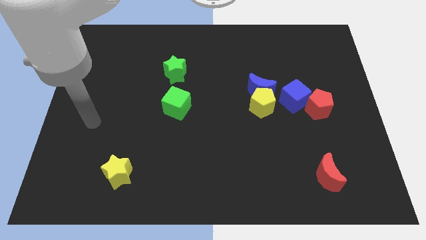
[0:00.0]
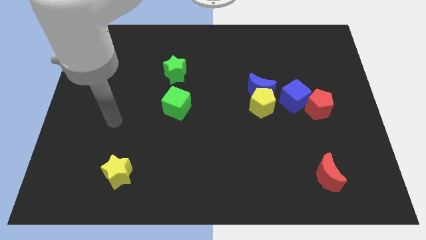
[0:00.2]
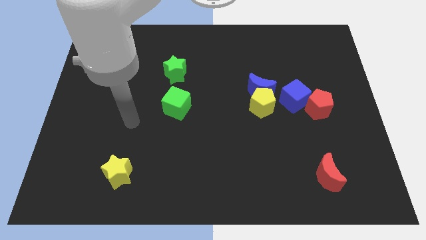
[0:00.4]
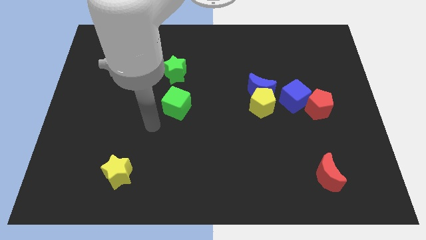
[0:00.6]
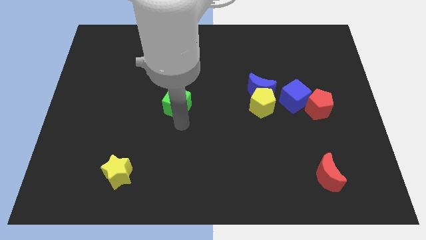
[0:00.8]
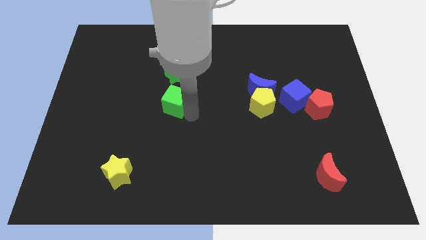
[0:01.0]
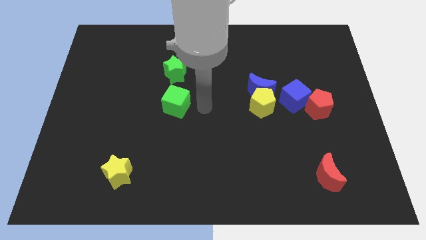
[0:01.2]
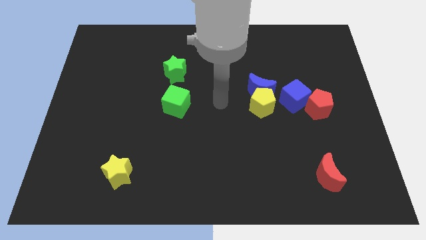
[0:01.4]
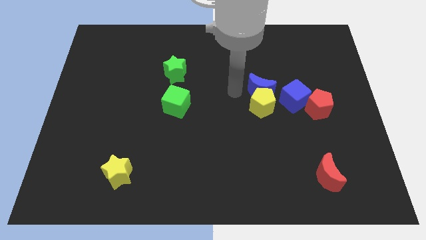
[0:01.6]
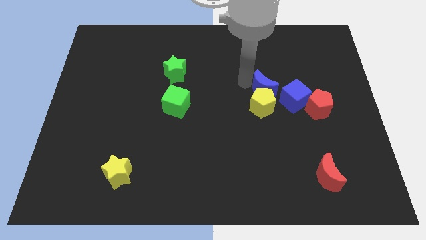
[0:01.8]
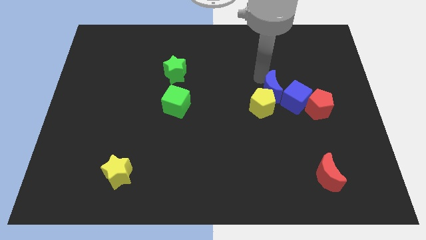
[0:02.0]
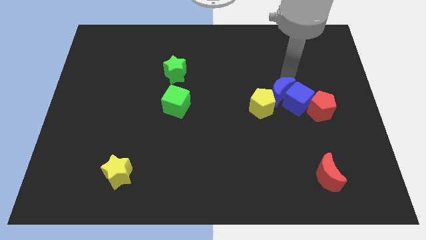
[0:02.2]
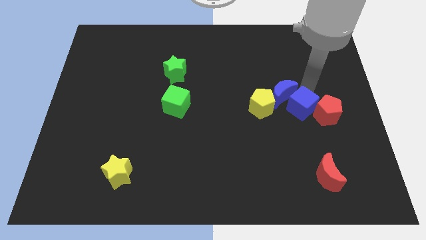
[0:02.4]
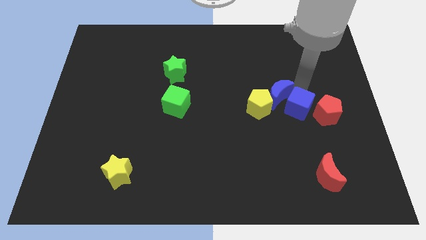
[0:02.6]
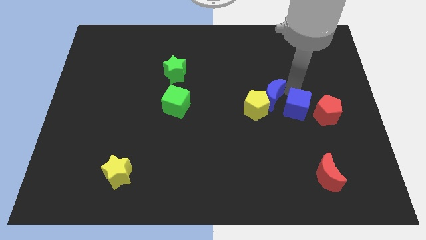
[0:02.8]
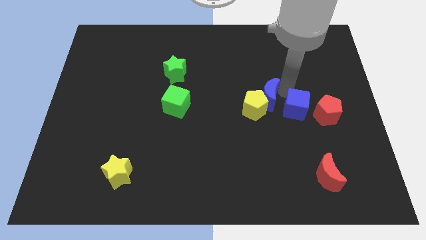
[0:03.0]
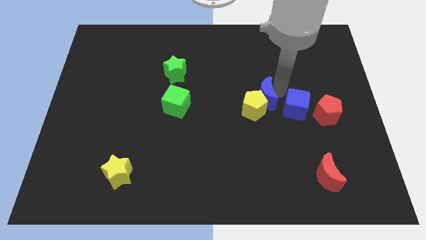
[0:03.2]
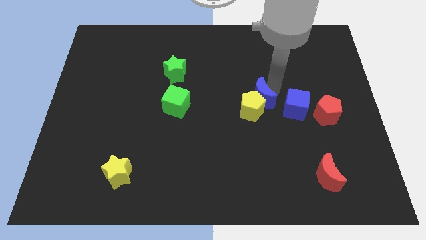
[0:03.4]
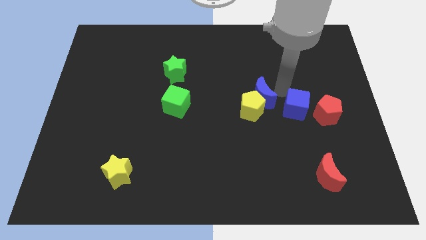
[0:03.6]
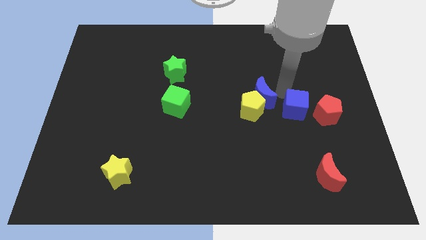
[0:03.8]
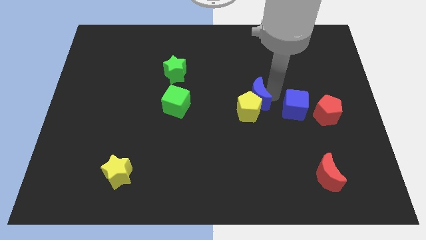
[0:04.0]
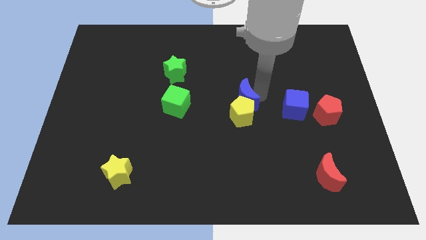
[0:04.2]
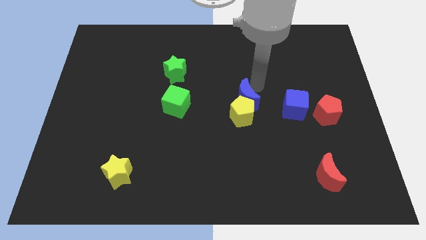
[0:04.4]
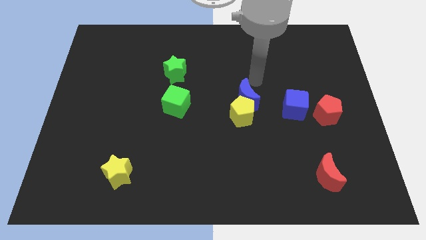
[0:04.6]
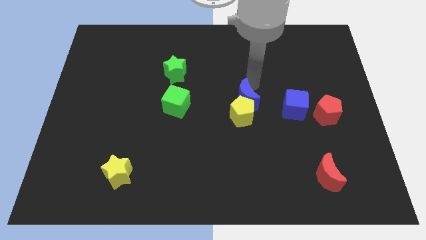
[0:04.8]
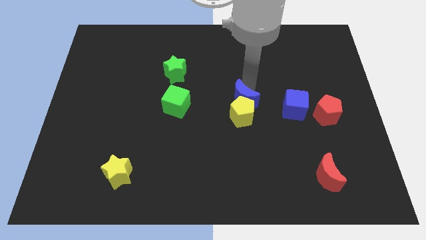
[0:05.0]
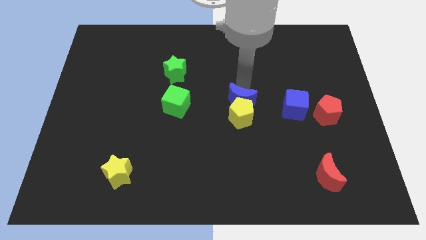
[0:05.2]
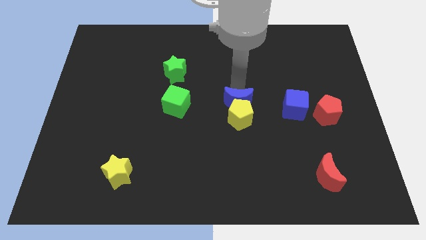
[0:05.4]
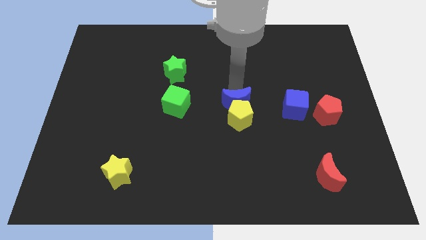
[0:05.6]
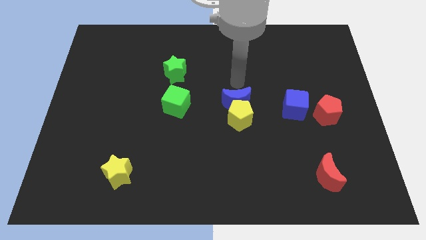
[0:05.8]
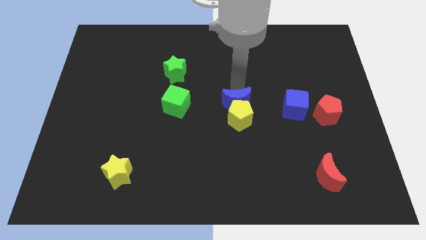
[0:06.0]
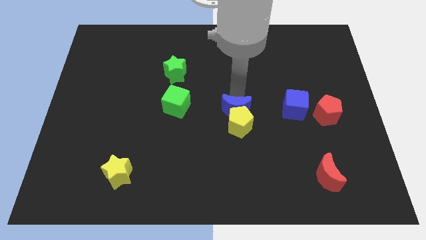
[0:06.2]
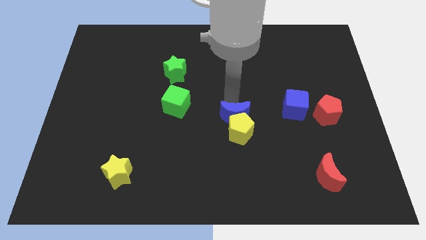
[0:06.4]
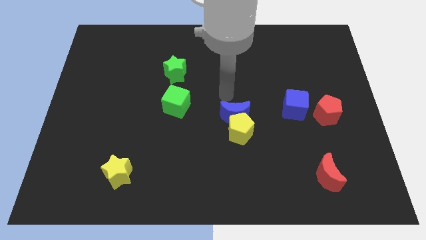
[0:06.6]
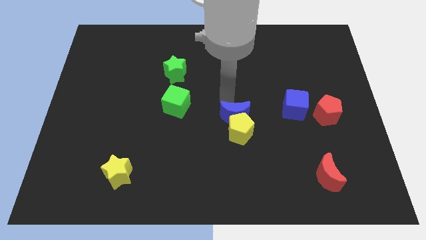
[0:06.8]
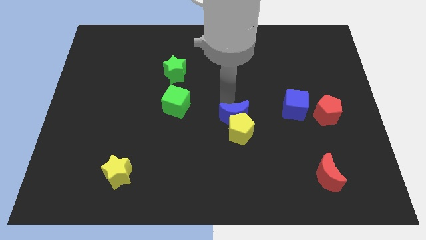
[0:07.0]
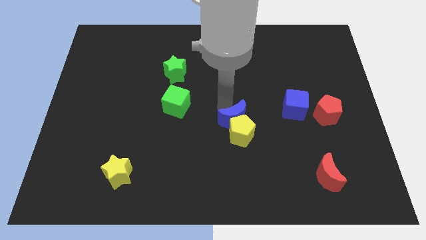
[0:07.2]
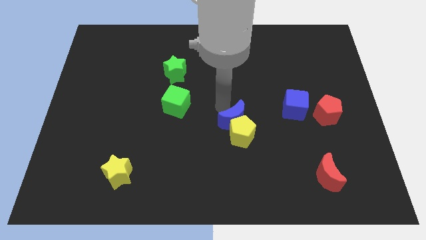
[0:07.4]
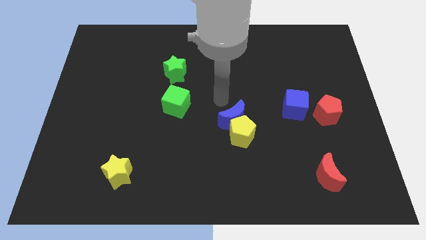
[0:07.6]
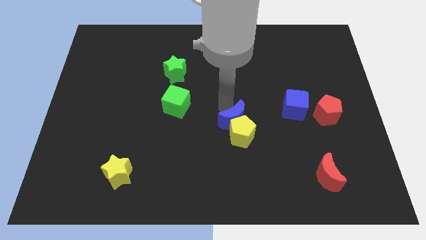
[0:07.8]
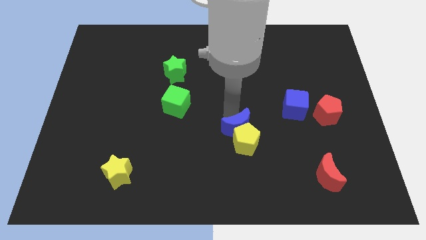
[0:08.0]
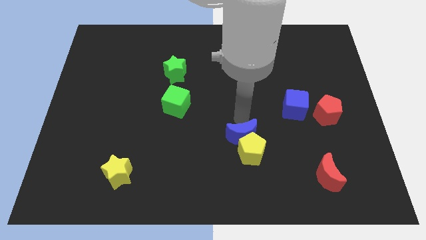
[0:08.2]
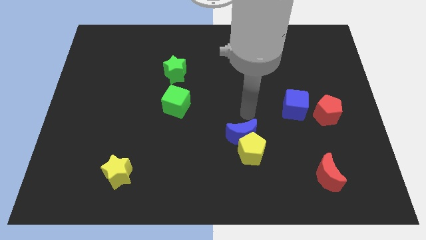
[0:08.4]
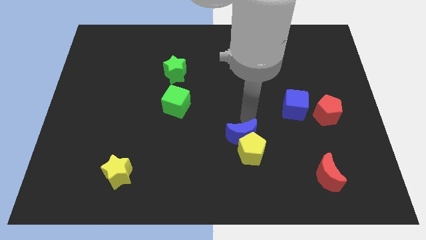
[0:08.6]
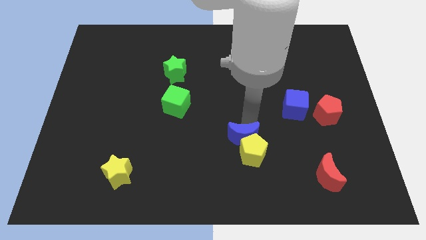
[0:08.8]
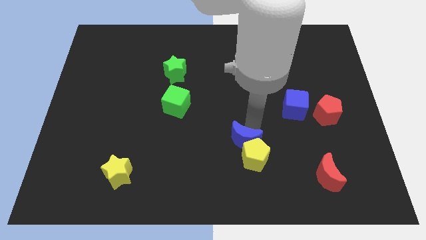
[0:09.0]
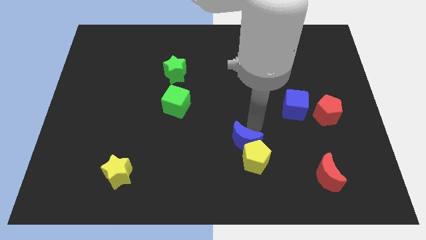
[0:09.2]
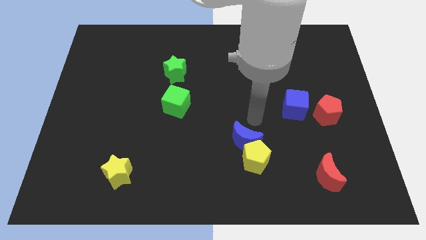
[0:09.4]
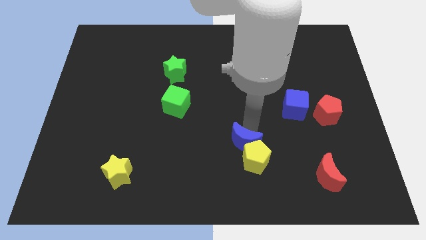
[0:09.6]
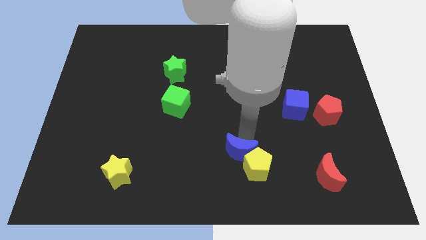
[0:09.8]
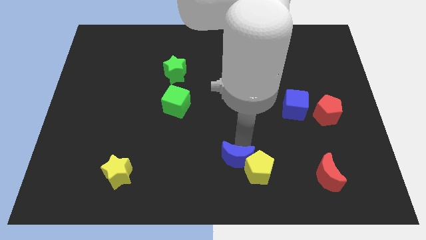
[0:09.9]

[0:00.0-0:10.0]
put the blue moon to the bottom side

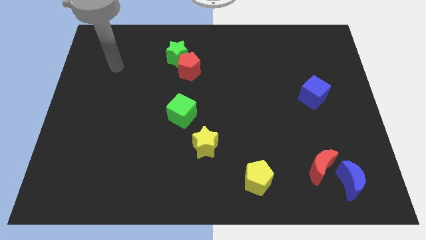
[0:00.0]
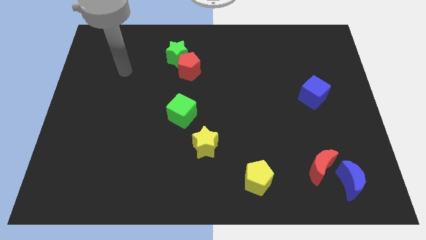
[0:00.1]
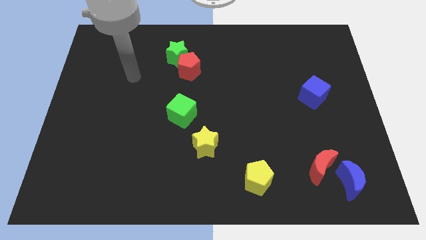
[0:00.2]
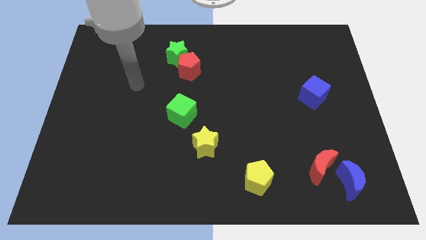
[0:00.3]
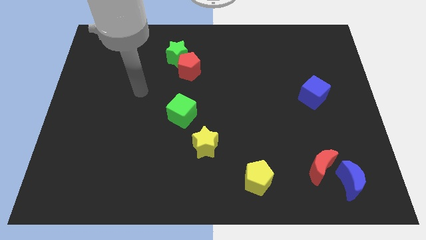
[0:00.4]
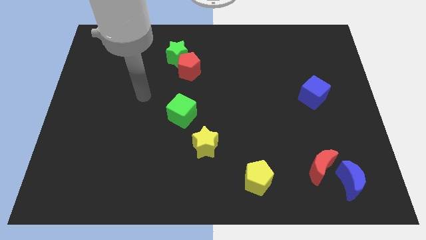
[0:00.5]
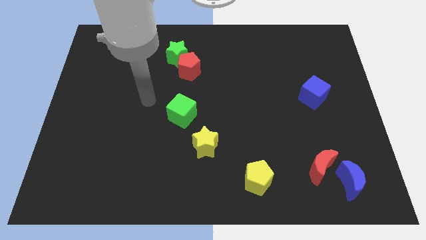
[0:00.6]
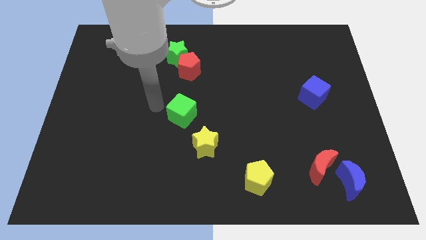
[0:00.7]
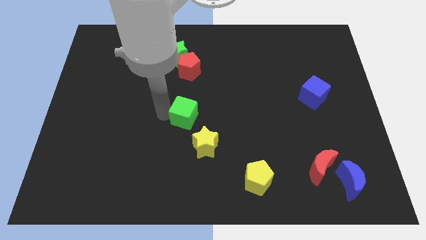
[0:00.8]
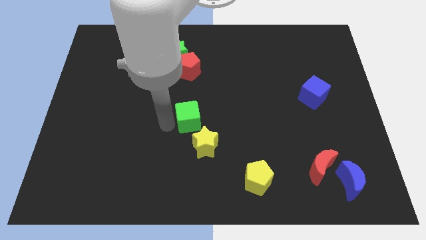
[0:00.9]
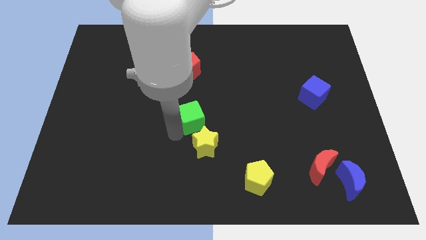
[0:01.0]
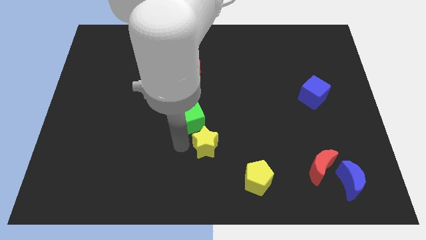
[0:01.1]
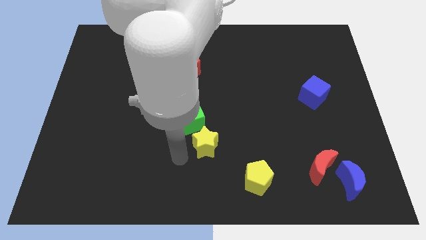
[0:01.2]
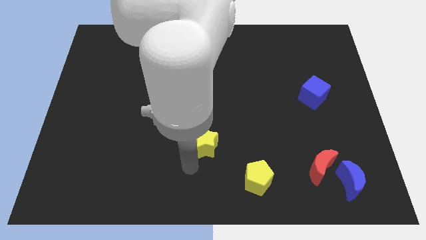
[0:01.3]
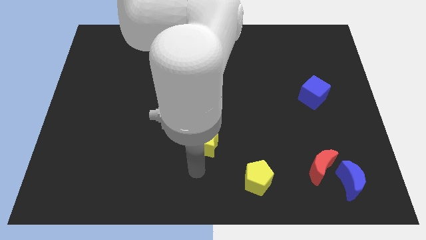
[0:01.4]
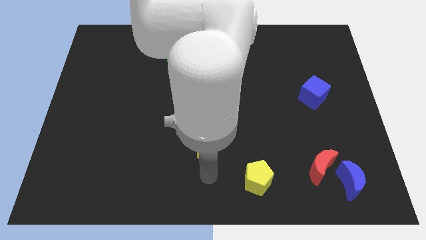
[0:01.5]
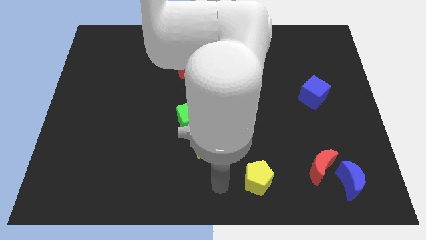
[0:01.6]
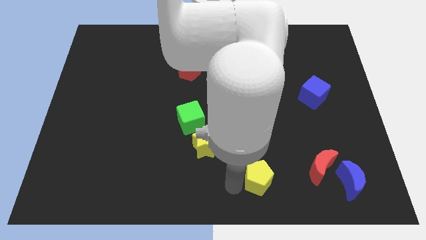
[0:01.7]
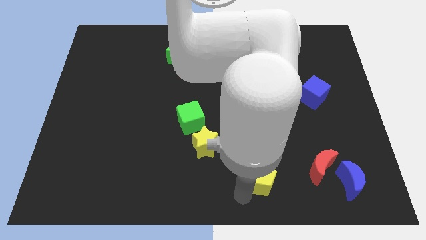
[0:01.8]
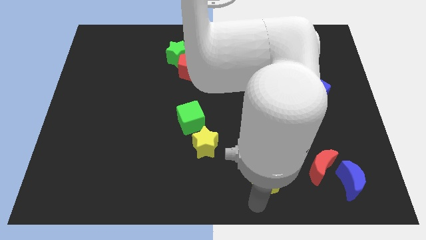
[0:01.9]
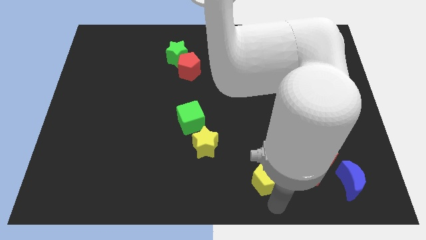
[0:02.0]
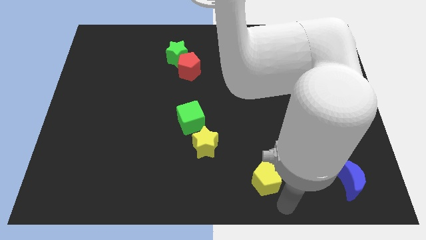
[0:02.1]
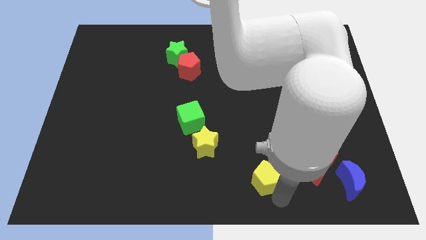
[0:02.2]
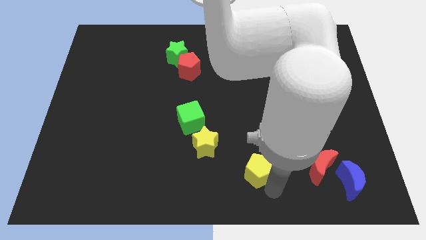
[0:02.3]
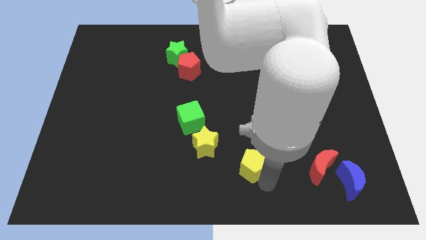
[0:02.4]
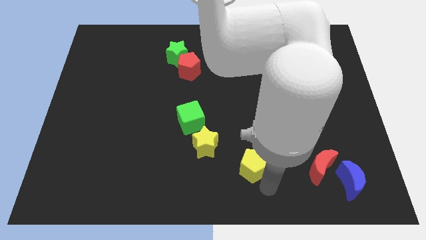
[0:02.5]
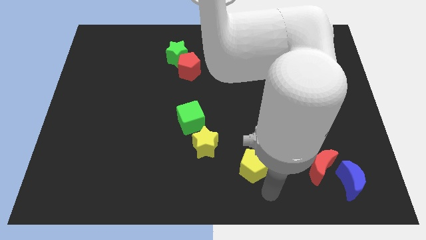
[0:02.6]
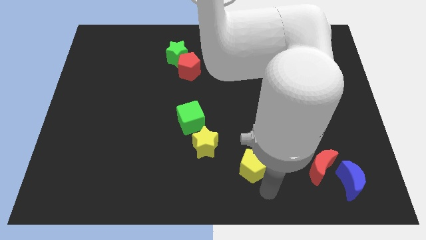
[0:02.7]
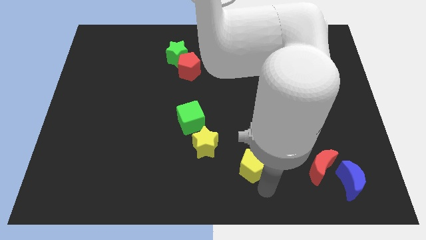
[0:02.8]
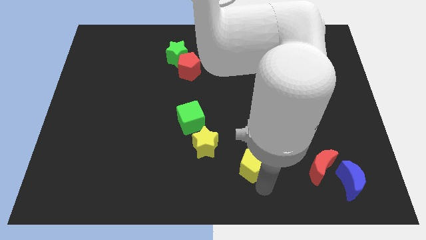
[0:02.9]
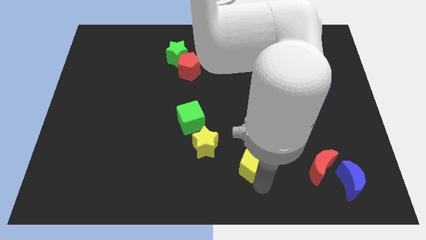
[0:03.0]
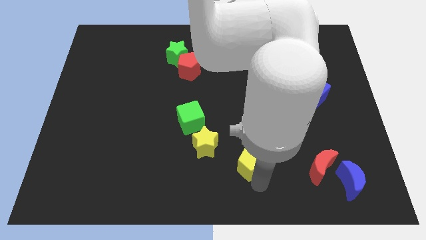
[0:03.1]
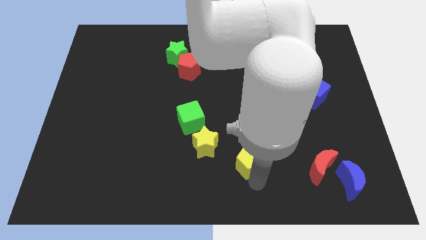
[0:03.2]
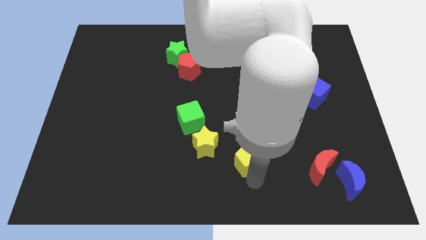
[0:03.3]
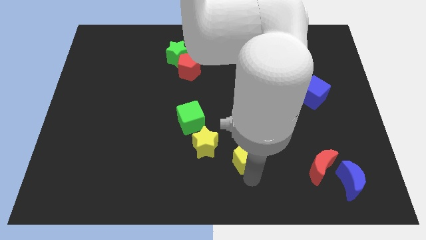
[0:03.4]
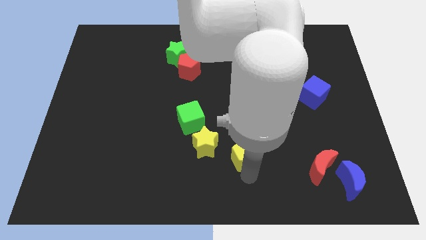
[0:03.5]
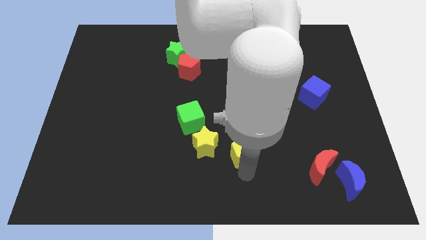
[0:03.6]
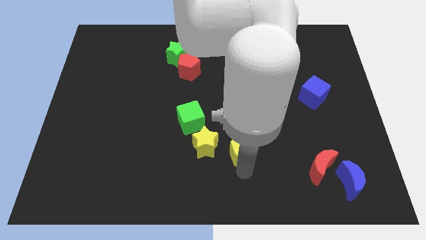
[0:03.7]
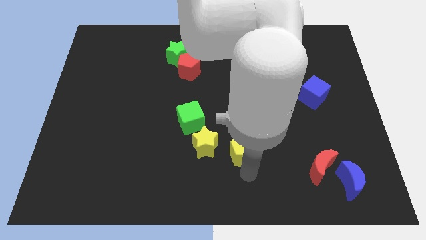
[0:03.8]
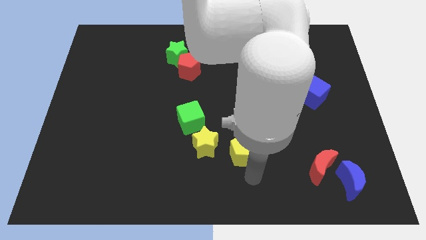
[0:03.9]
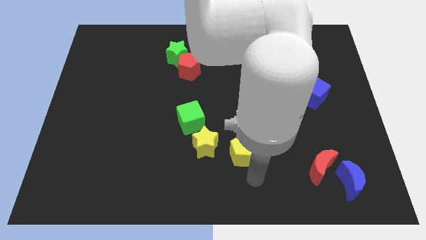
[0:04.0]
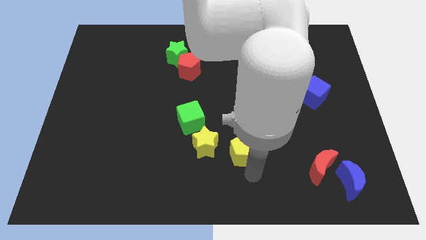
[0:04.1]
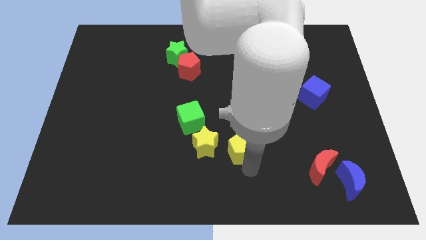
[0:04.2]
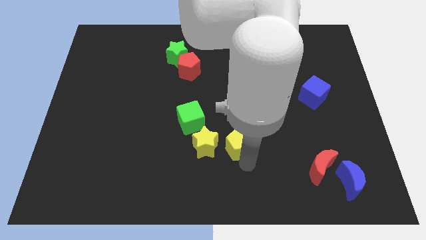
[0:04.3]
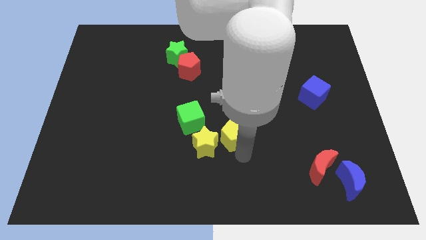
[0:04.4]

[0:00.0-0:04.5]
put the yellow pentagon to the middle
